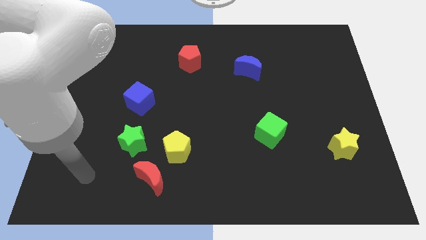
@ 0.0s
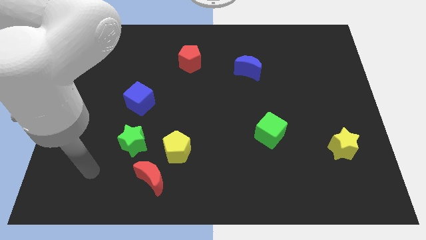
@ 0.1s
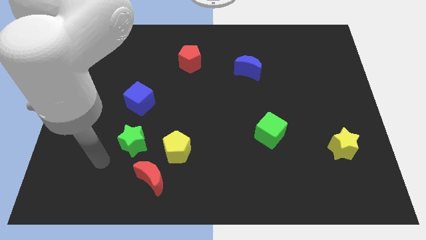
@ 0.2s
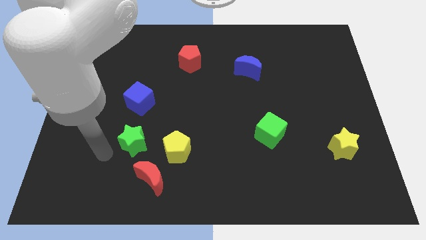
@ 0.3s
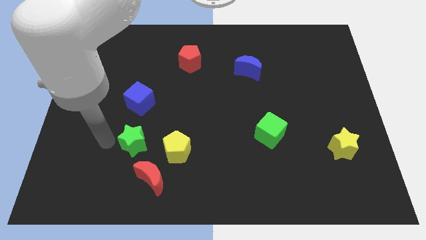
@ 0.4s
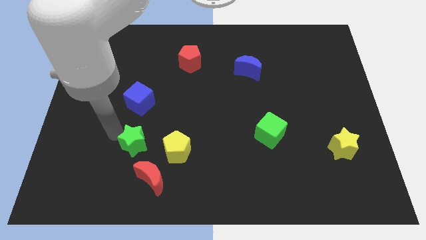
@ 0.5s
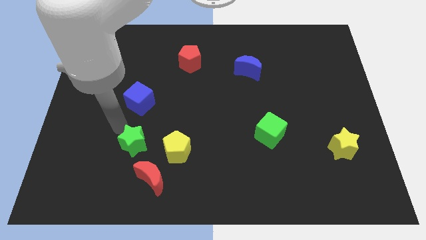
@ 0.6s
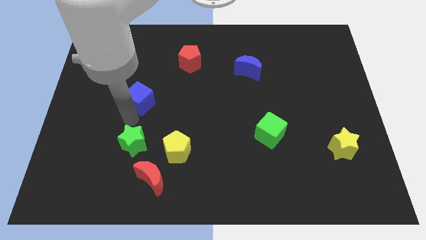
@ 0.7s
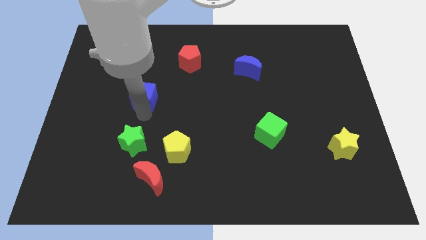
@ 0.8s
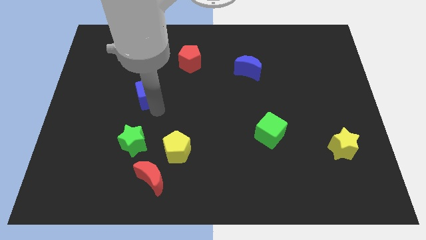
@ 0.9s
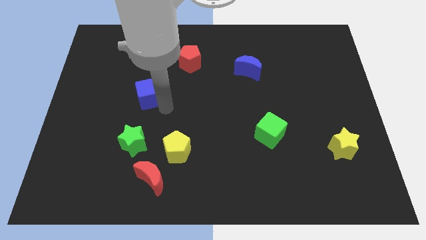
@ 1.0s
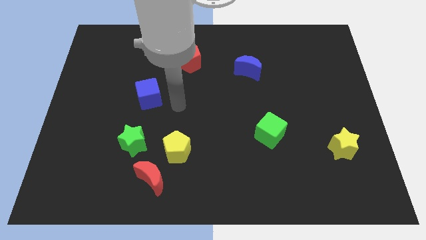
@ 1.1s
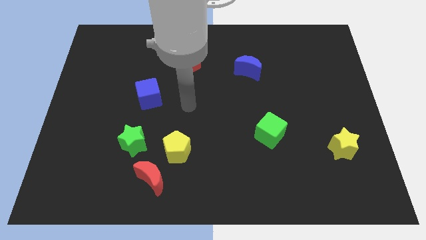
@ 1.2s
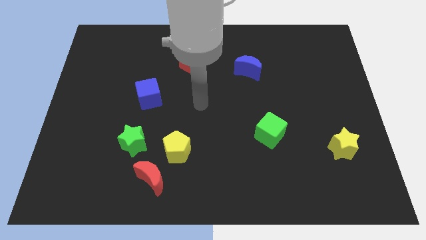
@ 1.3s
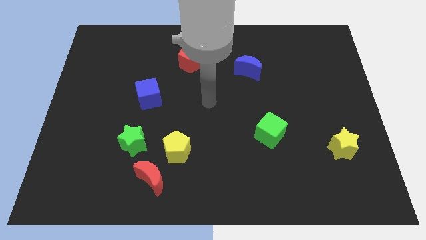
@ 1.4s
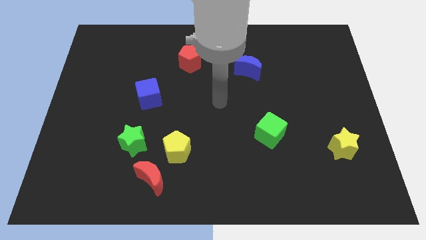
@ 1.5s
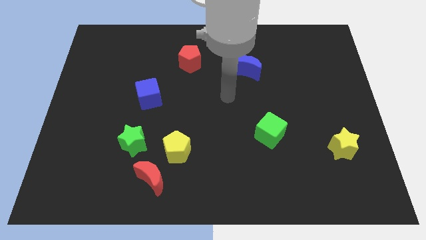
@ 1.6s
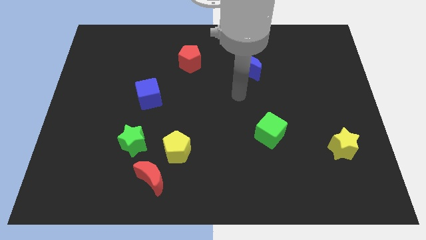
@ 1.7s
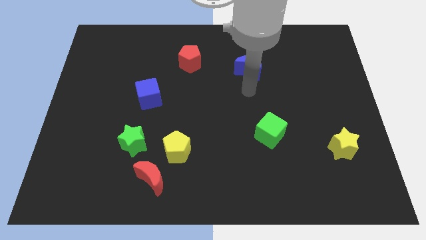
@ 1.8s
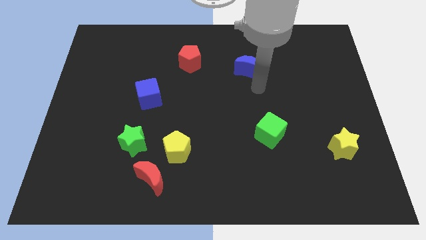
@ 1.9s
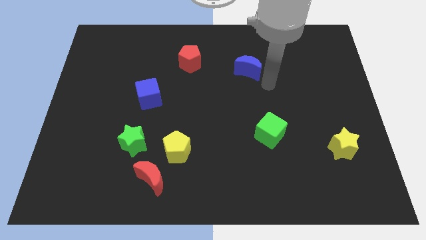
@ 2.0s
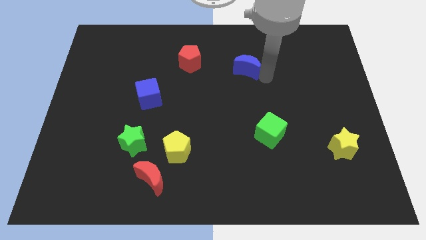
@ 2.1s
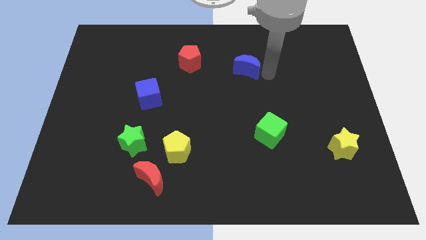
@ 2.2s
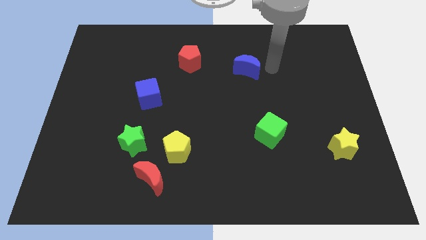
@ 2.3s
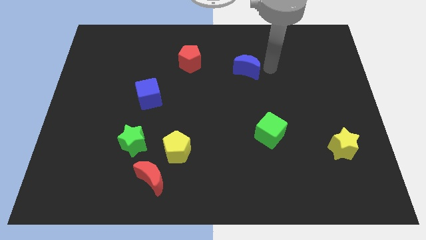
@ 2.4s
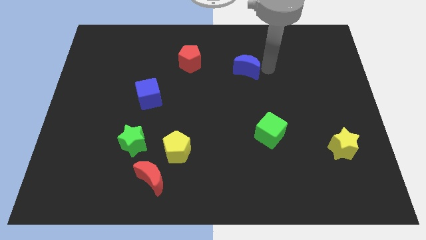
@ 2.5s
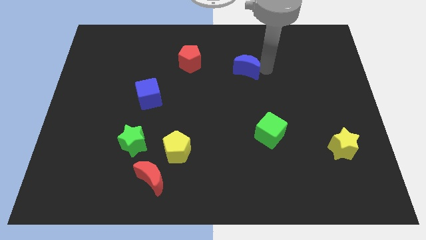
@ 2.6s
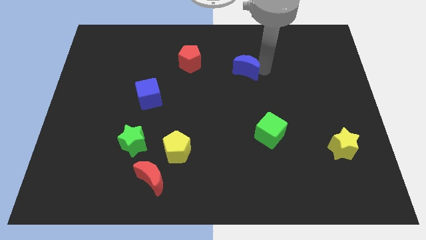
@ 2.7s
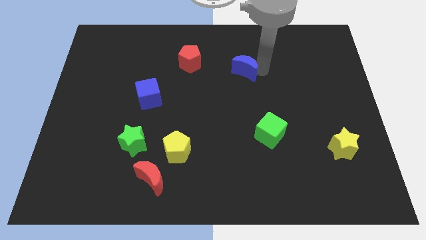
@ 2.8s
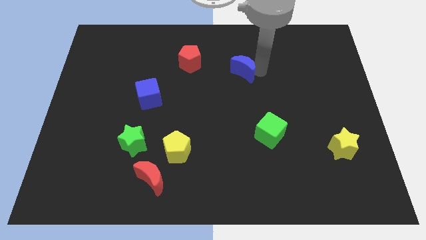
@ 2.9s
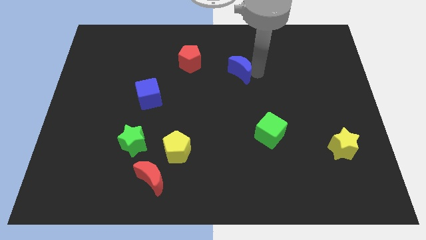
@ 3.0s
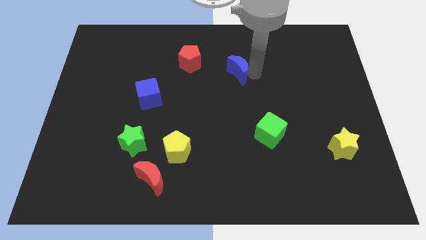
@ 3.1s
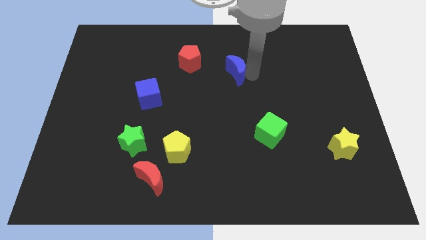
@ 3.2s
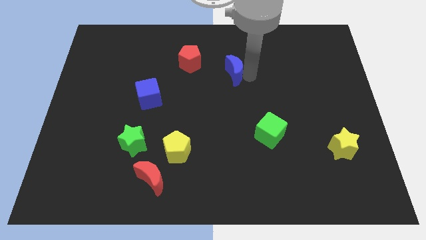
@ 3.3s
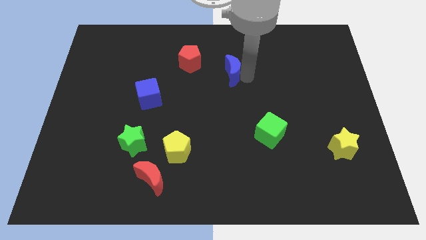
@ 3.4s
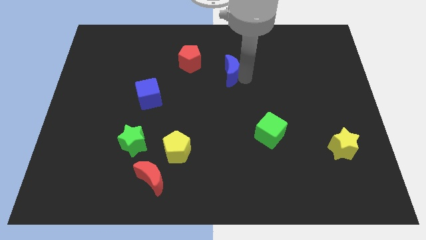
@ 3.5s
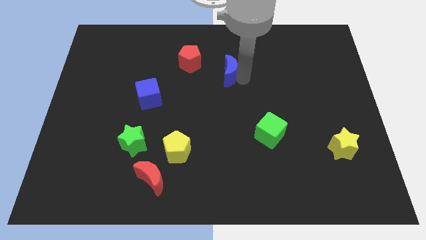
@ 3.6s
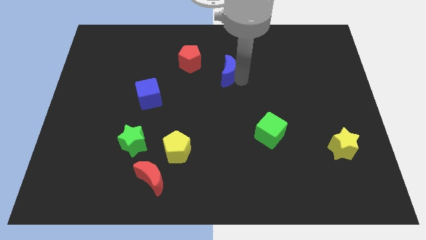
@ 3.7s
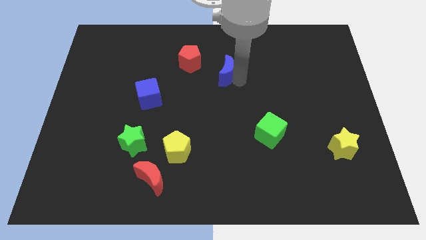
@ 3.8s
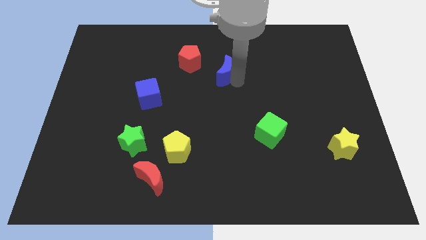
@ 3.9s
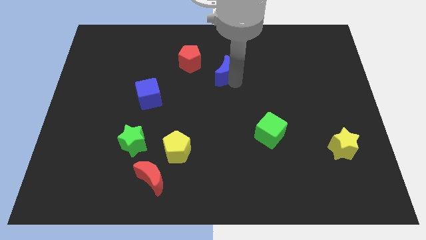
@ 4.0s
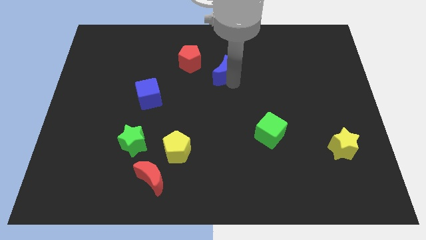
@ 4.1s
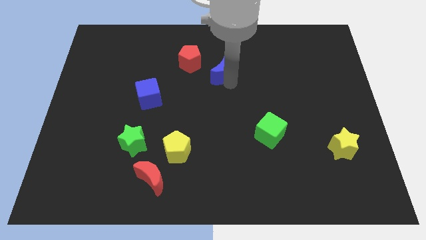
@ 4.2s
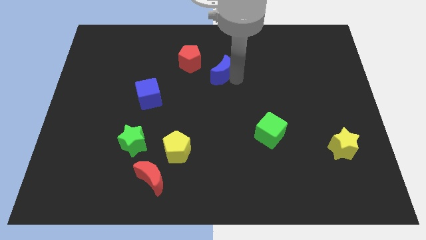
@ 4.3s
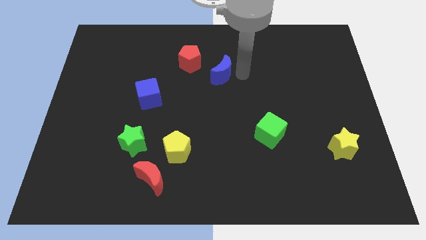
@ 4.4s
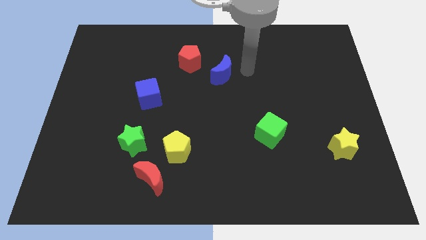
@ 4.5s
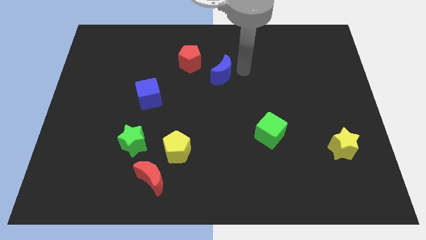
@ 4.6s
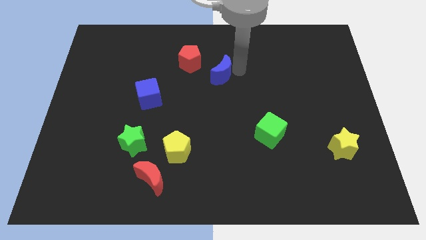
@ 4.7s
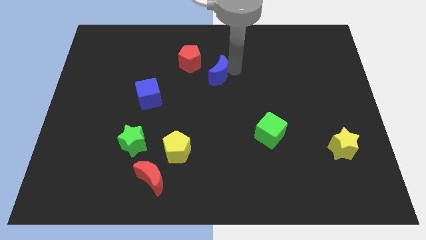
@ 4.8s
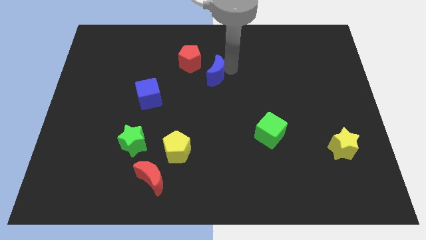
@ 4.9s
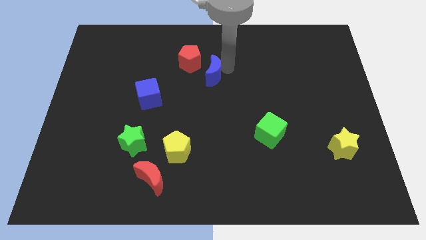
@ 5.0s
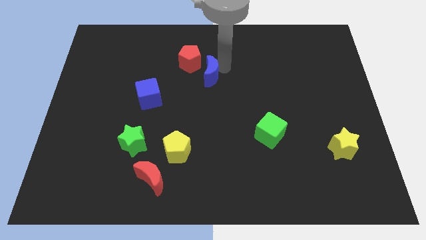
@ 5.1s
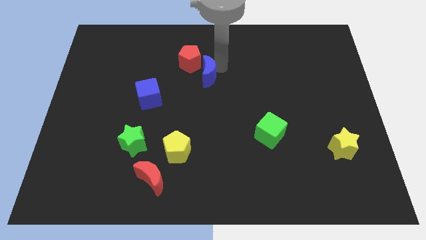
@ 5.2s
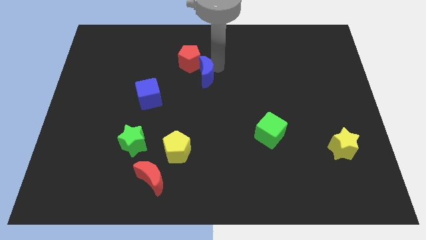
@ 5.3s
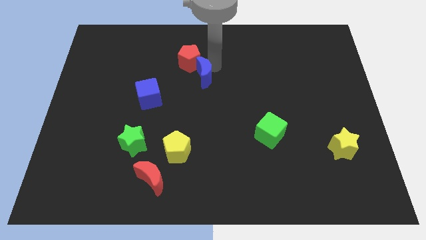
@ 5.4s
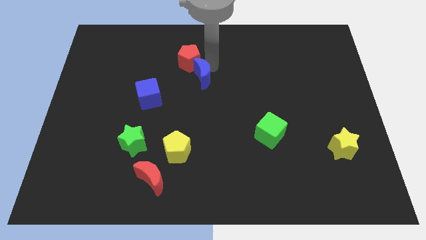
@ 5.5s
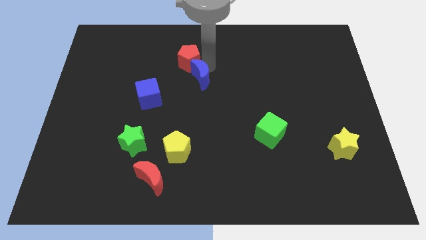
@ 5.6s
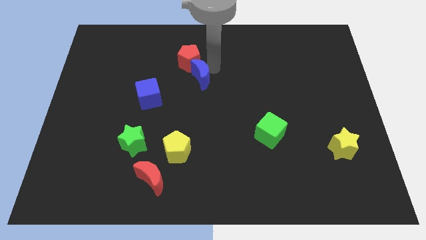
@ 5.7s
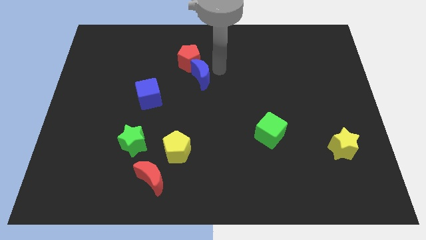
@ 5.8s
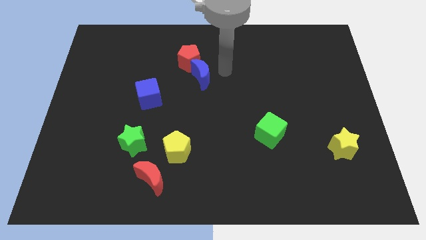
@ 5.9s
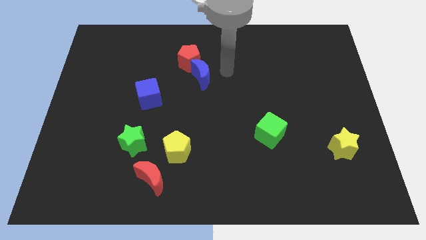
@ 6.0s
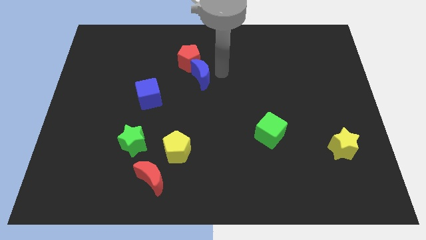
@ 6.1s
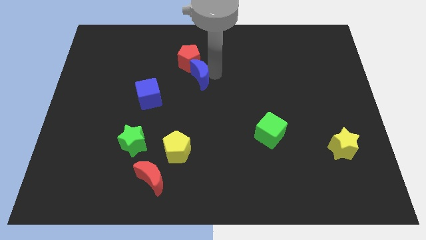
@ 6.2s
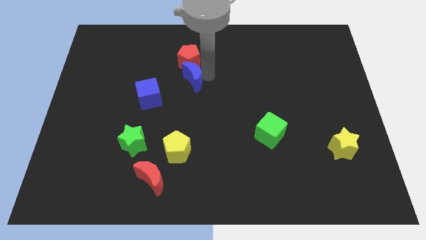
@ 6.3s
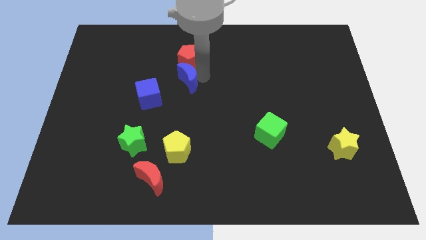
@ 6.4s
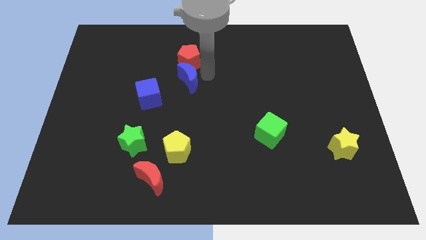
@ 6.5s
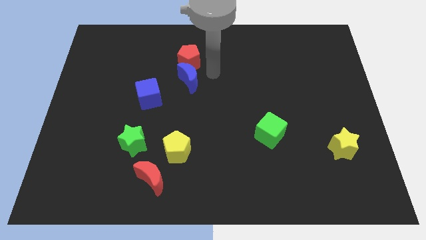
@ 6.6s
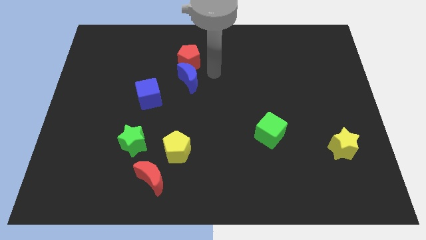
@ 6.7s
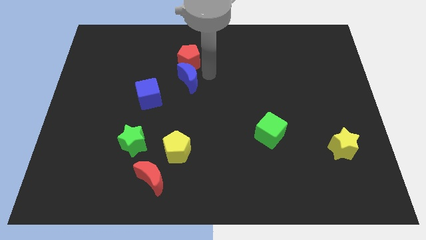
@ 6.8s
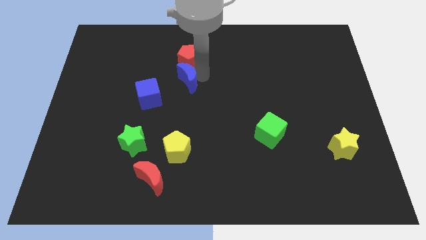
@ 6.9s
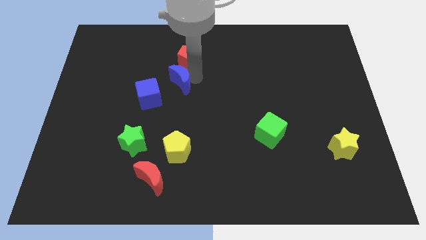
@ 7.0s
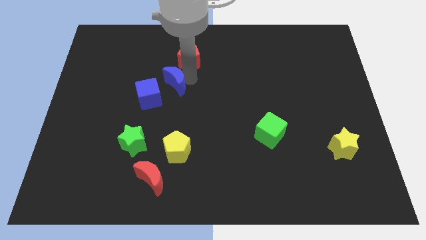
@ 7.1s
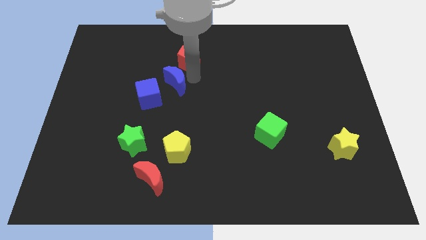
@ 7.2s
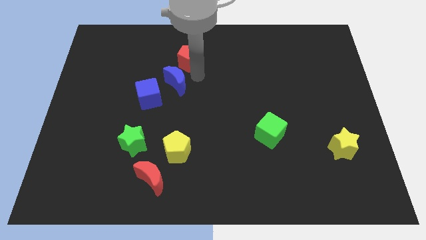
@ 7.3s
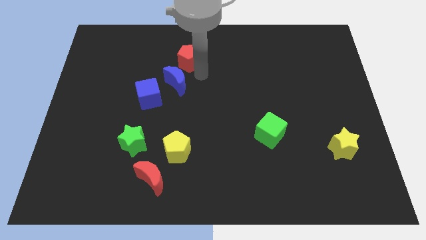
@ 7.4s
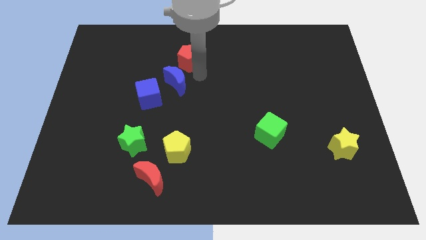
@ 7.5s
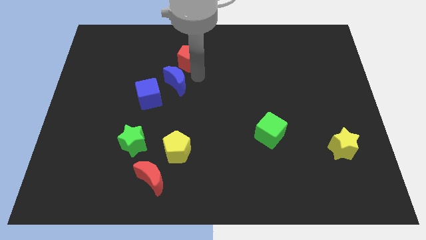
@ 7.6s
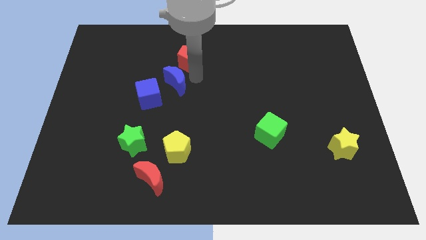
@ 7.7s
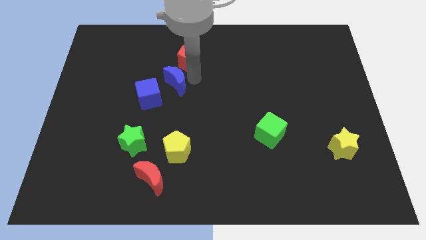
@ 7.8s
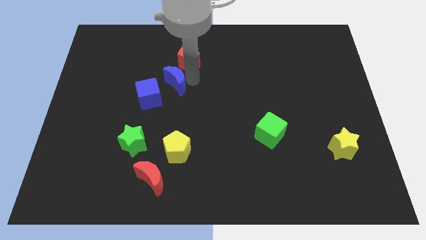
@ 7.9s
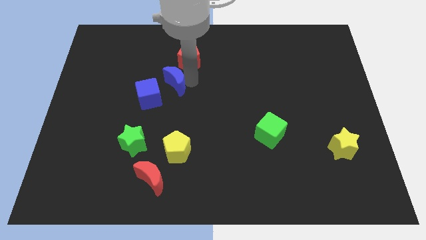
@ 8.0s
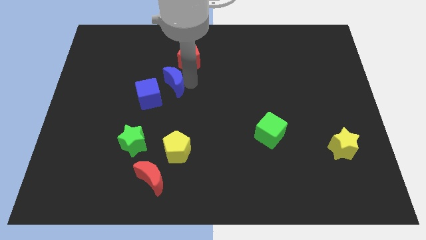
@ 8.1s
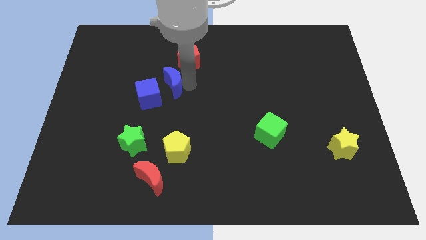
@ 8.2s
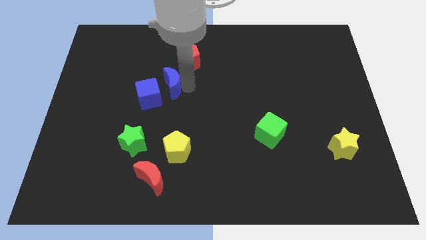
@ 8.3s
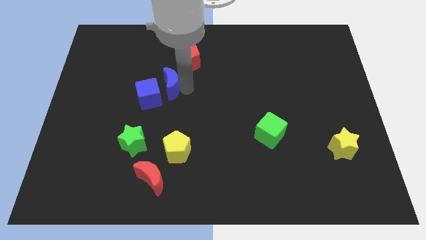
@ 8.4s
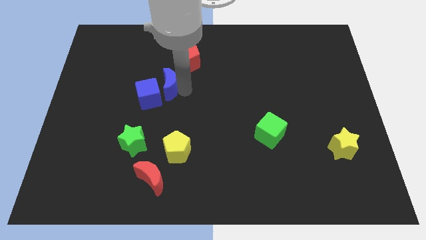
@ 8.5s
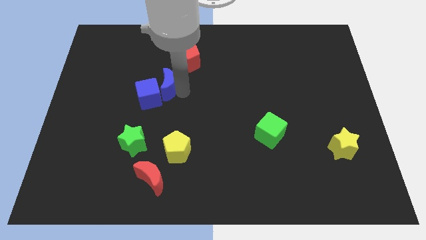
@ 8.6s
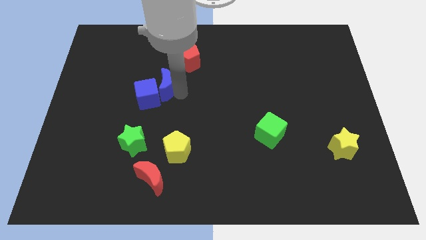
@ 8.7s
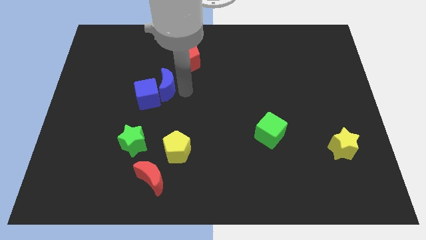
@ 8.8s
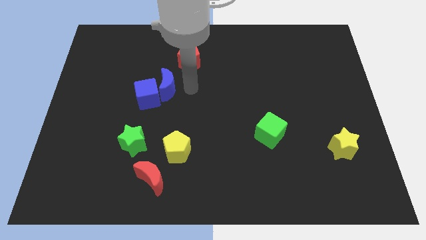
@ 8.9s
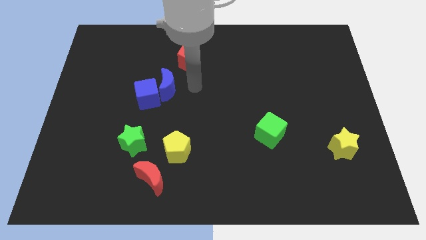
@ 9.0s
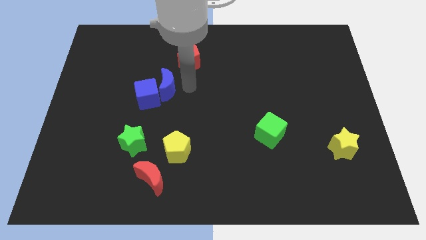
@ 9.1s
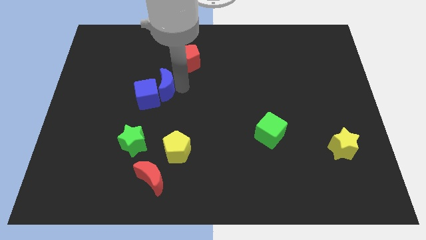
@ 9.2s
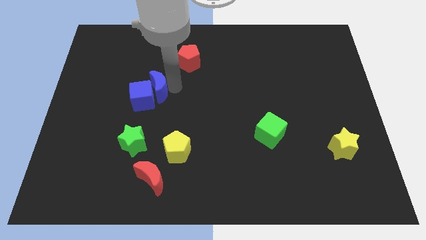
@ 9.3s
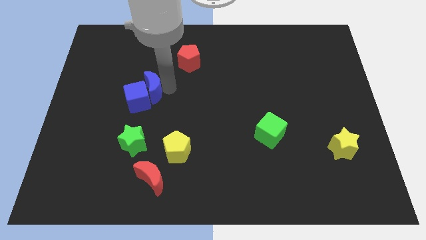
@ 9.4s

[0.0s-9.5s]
push the blue moon to the top of the green star
